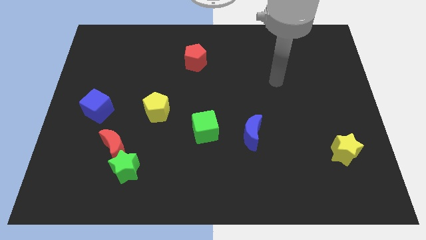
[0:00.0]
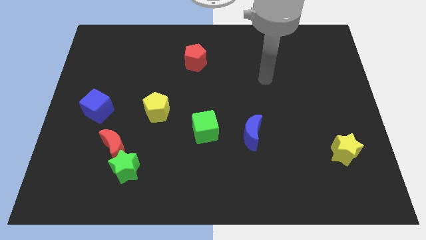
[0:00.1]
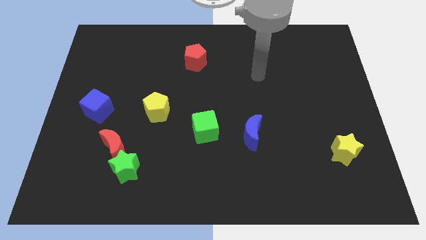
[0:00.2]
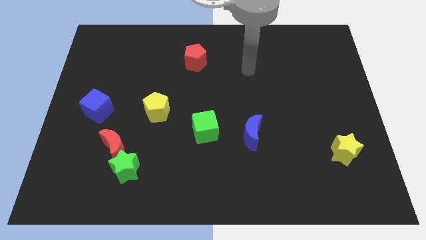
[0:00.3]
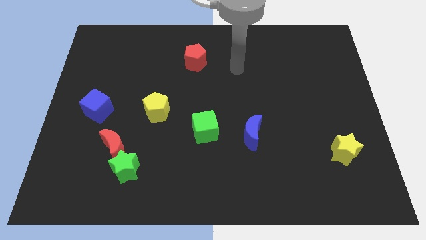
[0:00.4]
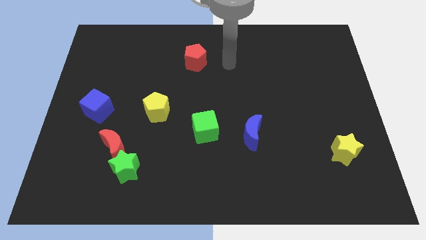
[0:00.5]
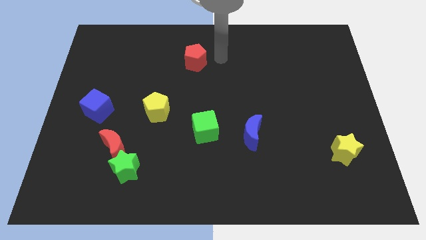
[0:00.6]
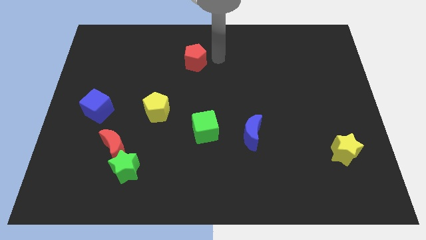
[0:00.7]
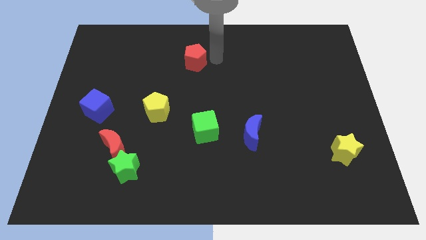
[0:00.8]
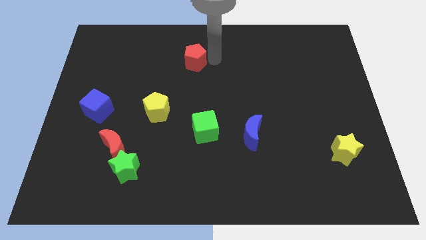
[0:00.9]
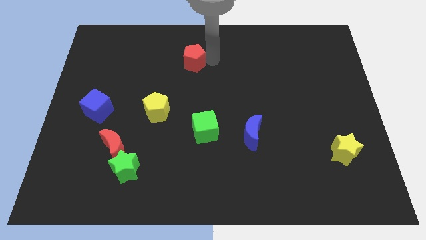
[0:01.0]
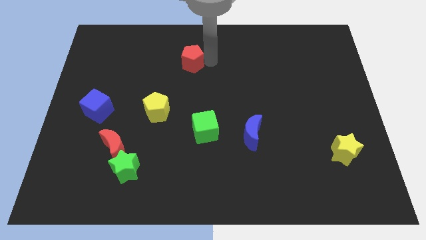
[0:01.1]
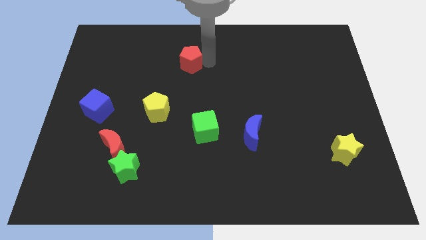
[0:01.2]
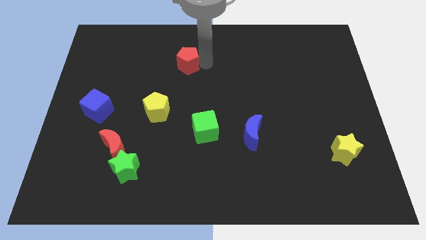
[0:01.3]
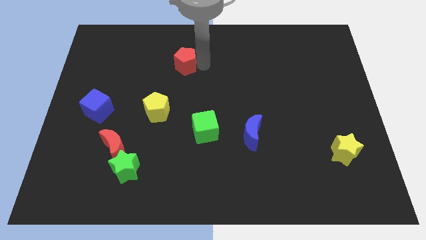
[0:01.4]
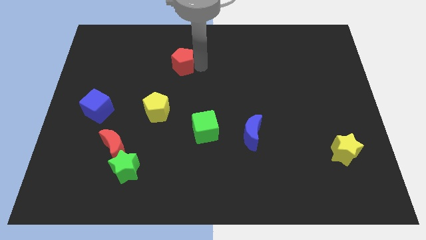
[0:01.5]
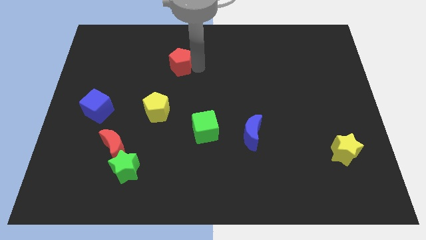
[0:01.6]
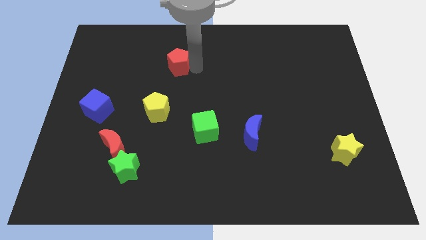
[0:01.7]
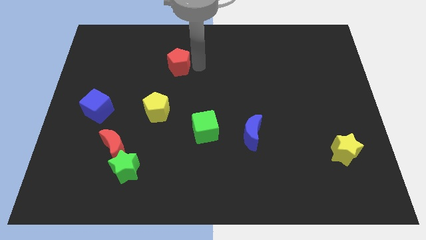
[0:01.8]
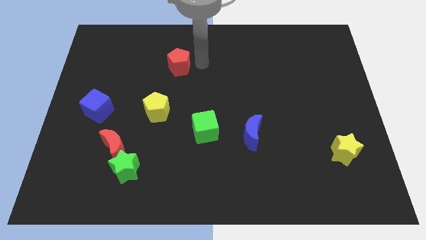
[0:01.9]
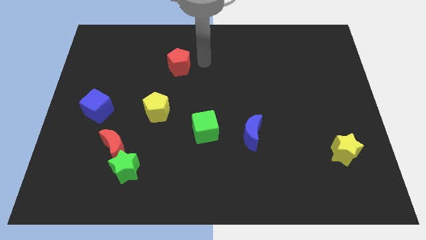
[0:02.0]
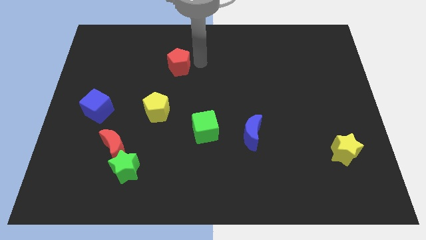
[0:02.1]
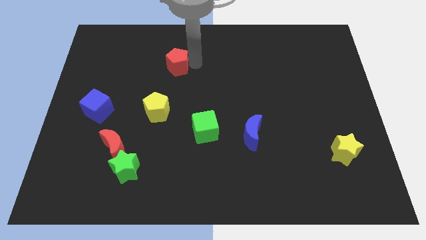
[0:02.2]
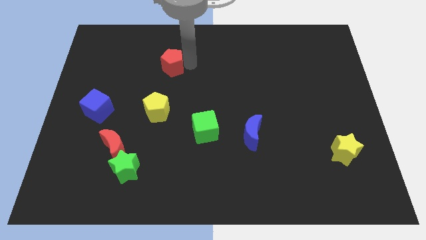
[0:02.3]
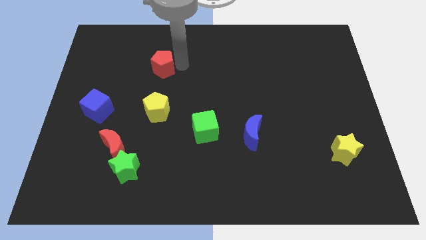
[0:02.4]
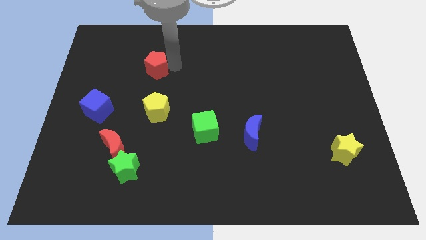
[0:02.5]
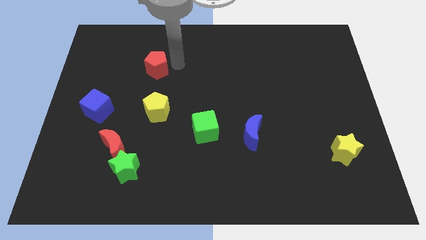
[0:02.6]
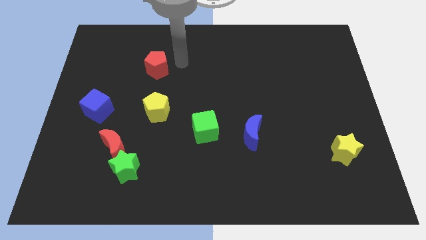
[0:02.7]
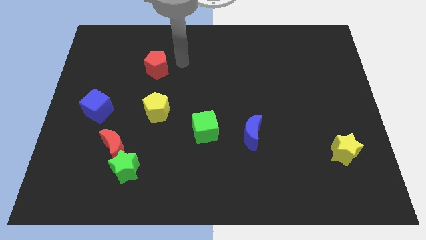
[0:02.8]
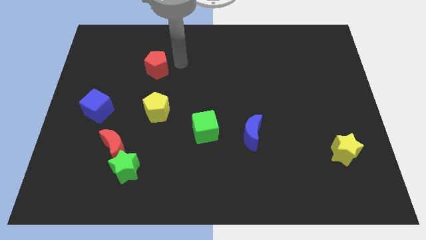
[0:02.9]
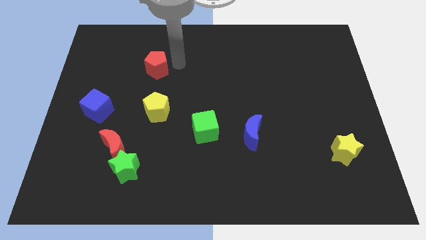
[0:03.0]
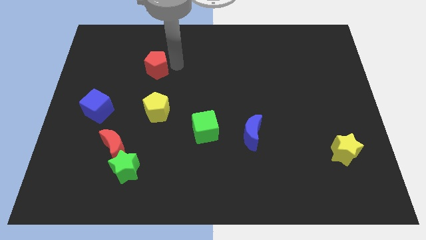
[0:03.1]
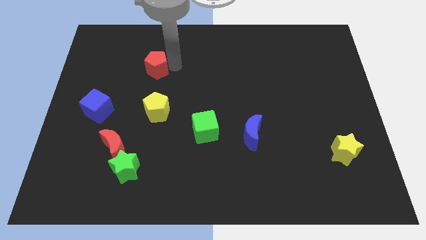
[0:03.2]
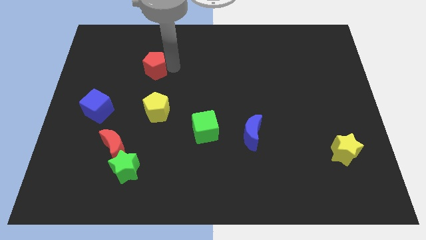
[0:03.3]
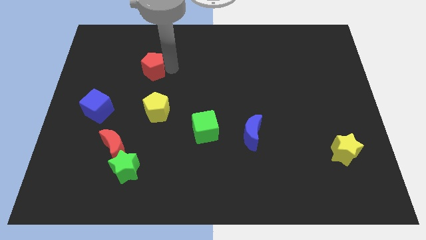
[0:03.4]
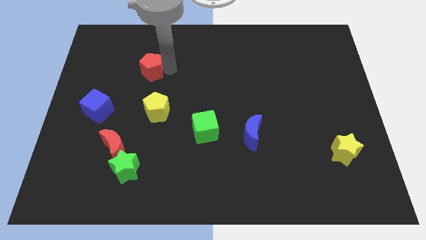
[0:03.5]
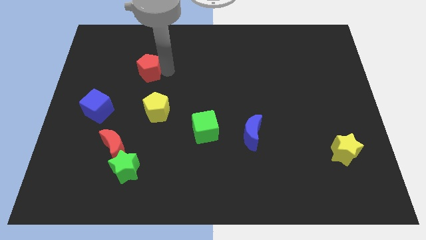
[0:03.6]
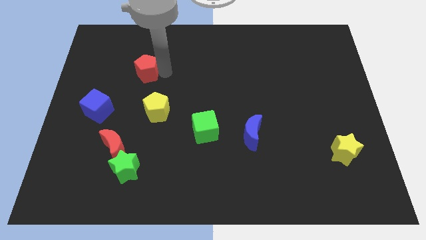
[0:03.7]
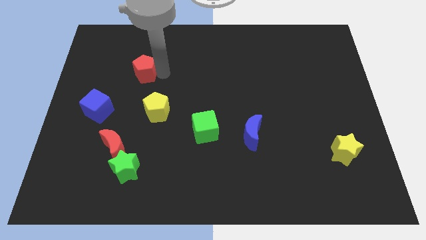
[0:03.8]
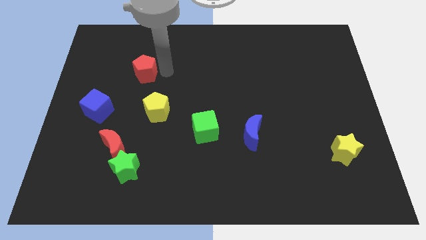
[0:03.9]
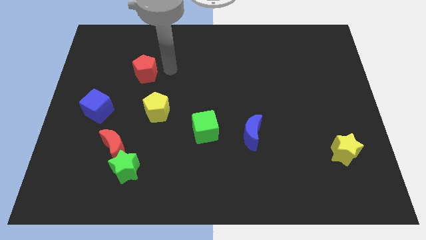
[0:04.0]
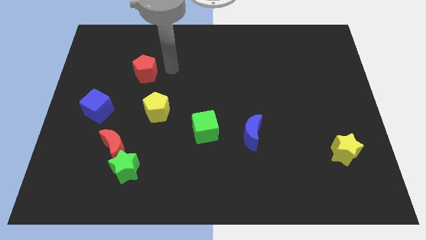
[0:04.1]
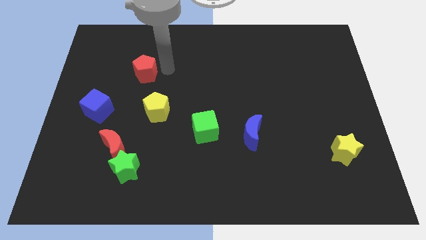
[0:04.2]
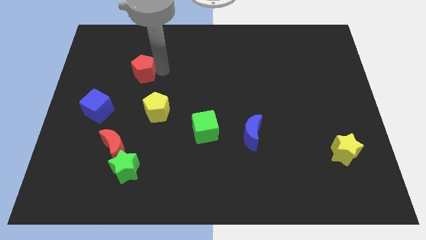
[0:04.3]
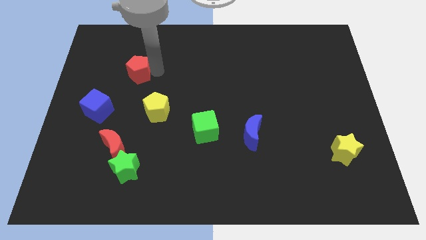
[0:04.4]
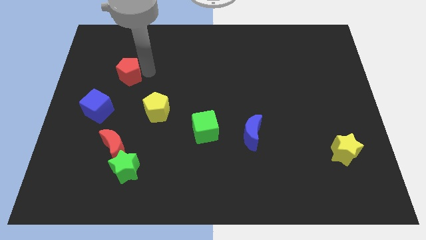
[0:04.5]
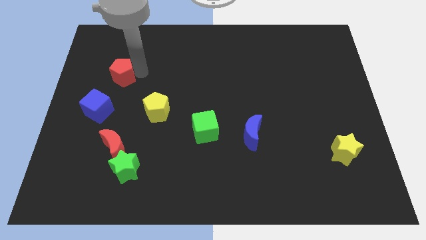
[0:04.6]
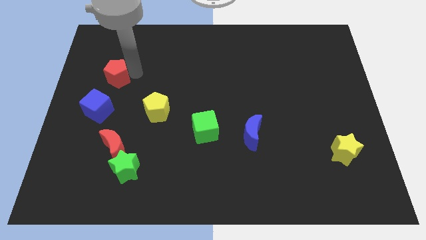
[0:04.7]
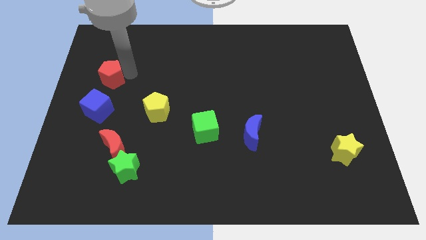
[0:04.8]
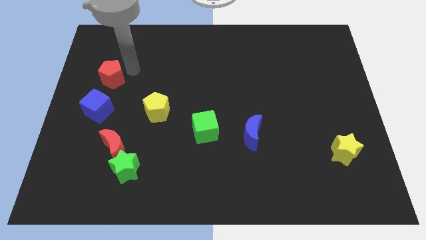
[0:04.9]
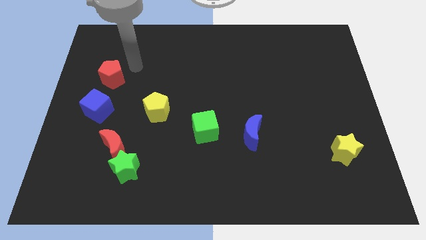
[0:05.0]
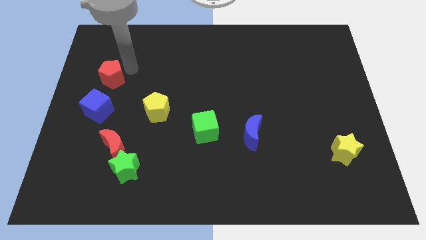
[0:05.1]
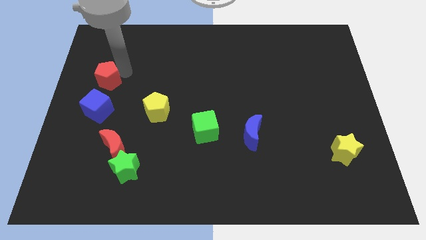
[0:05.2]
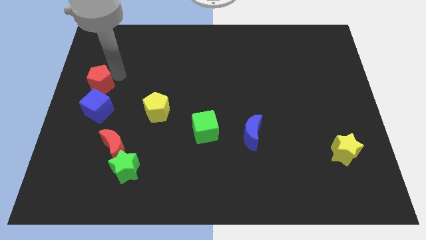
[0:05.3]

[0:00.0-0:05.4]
slide the red pentagon to the left side of the board

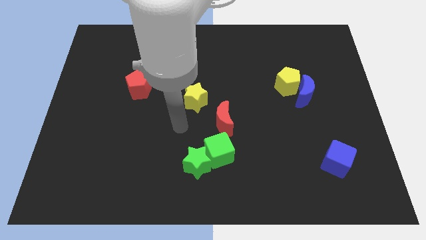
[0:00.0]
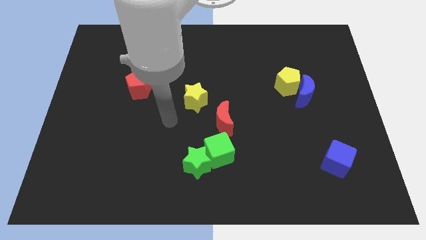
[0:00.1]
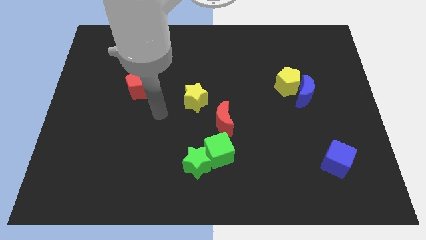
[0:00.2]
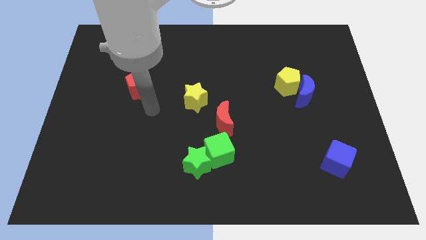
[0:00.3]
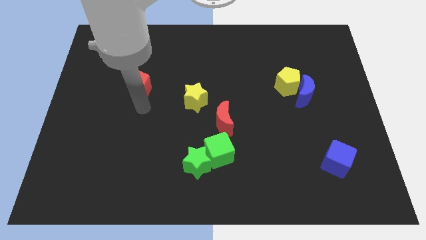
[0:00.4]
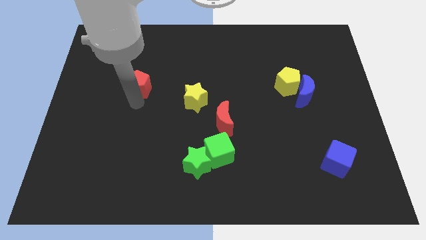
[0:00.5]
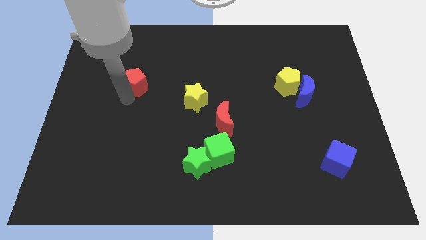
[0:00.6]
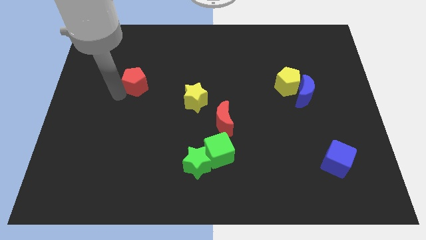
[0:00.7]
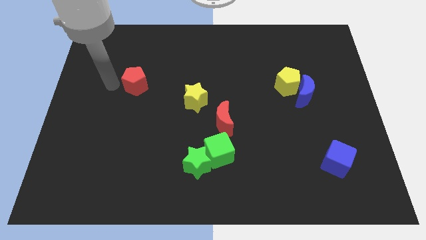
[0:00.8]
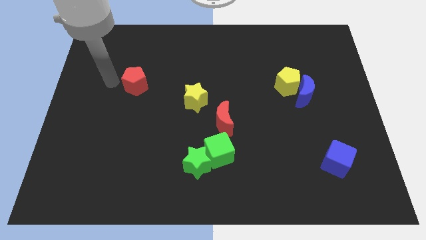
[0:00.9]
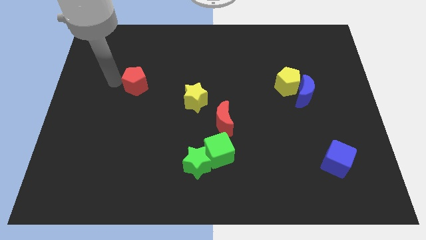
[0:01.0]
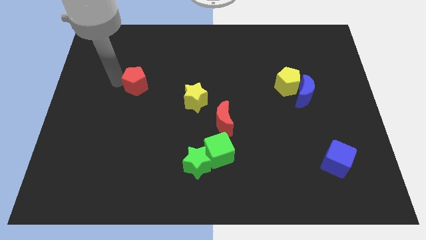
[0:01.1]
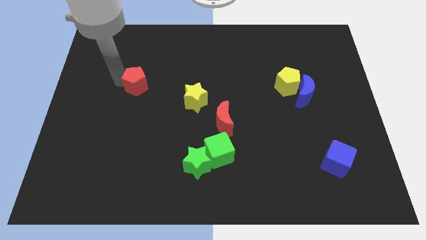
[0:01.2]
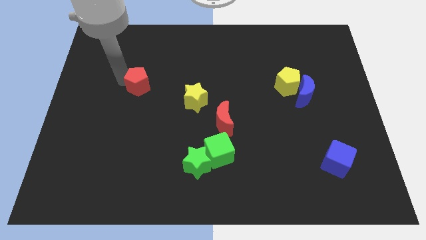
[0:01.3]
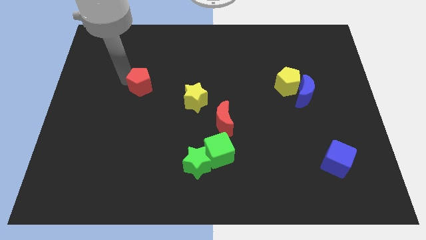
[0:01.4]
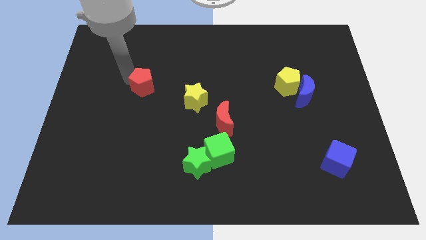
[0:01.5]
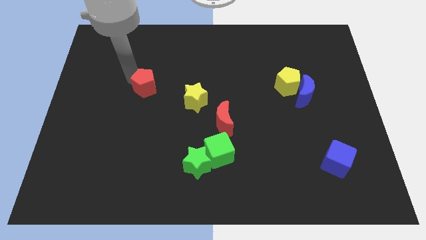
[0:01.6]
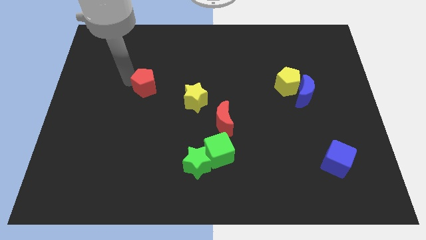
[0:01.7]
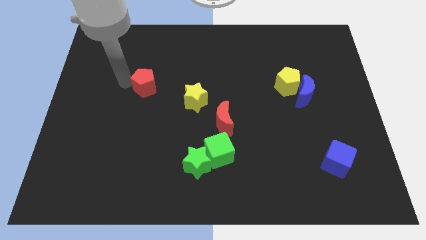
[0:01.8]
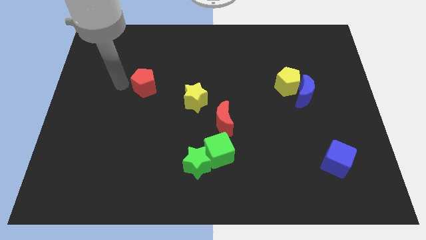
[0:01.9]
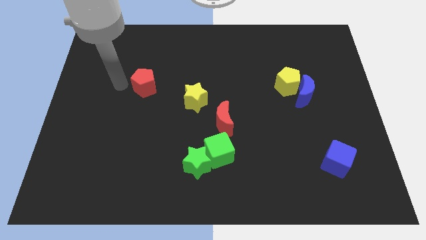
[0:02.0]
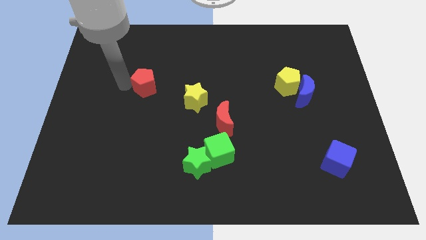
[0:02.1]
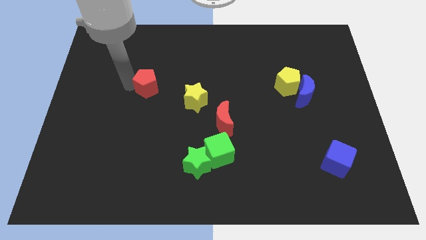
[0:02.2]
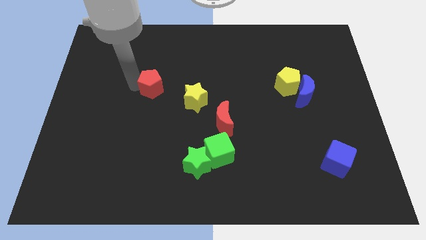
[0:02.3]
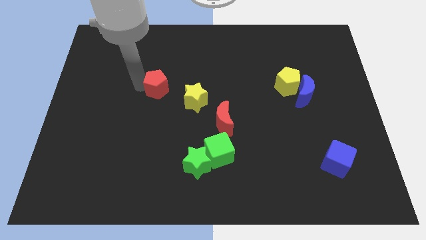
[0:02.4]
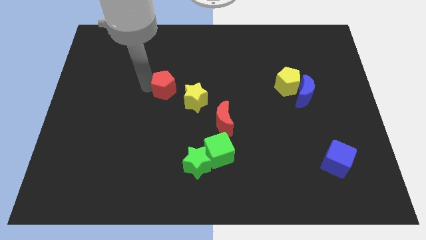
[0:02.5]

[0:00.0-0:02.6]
move the red pentagon to the center
